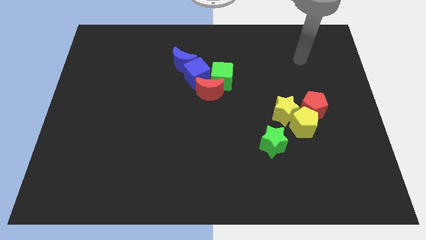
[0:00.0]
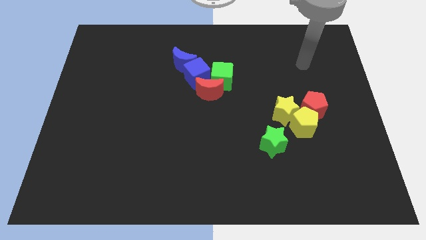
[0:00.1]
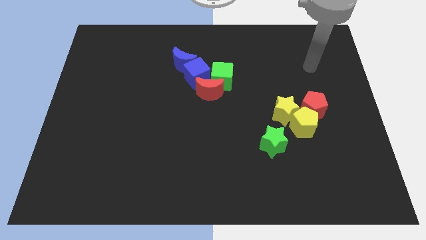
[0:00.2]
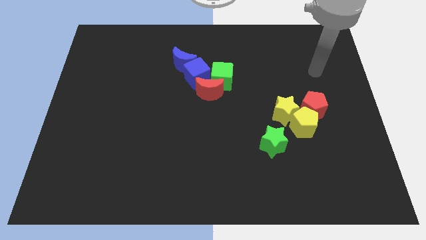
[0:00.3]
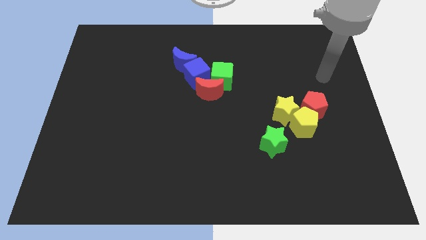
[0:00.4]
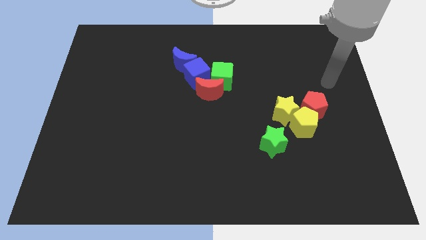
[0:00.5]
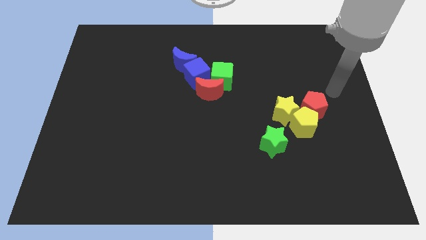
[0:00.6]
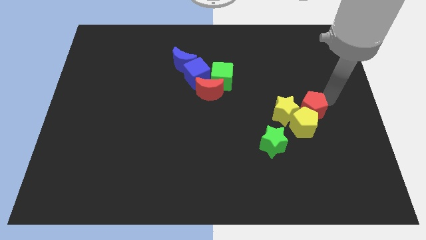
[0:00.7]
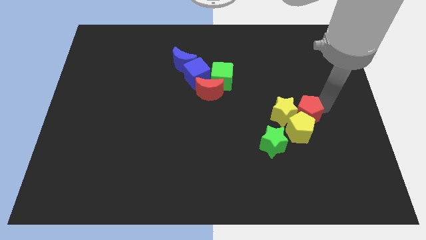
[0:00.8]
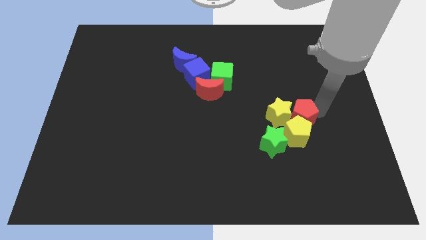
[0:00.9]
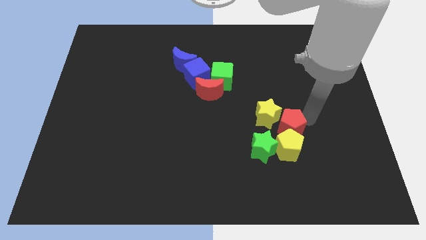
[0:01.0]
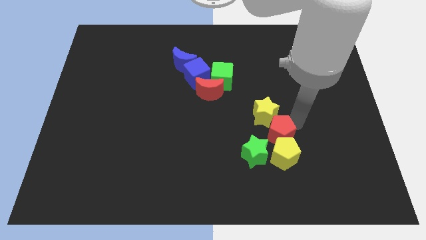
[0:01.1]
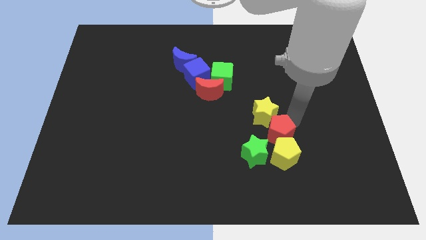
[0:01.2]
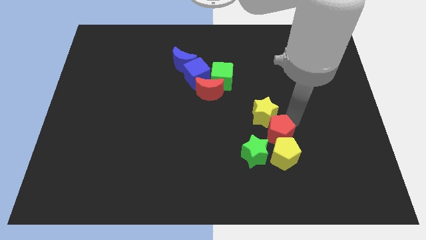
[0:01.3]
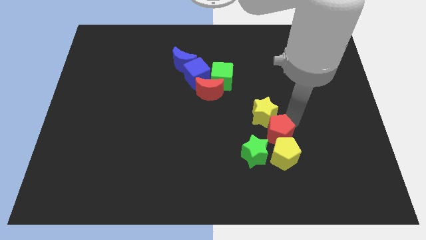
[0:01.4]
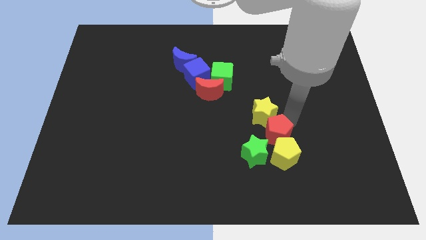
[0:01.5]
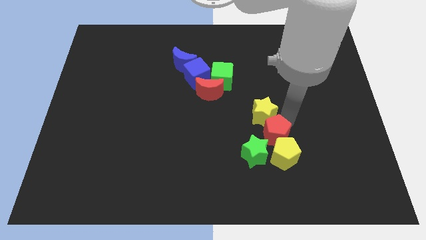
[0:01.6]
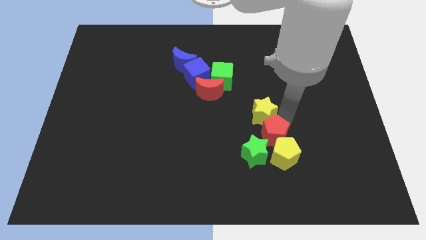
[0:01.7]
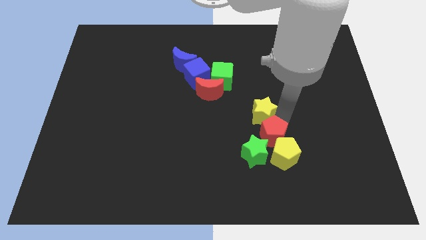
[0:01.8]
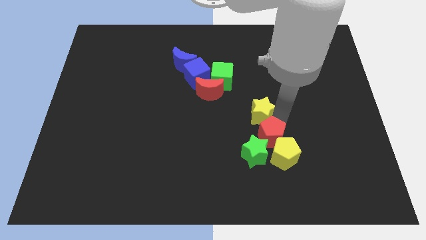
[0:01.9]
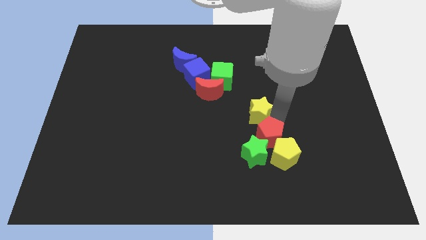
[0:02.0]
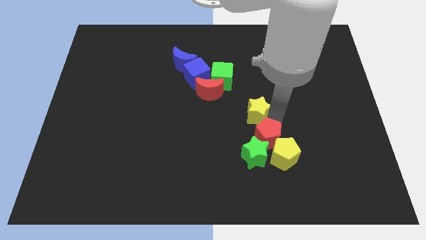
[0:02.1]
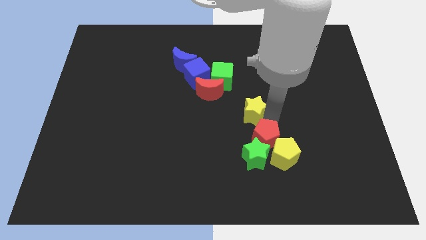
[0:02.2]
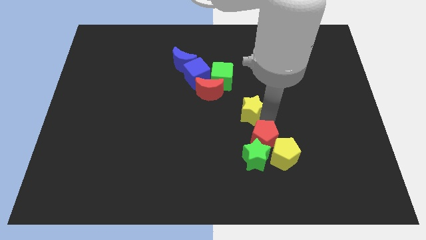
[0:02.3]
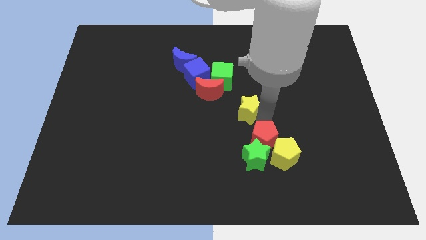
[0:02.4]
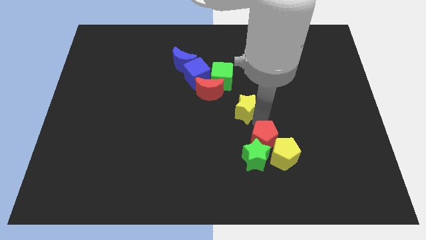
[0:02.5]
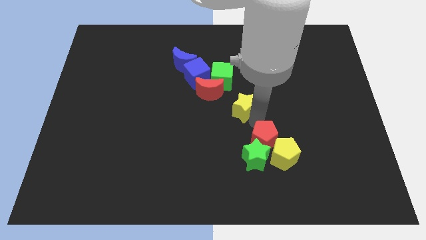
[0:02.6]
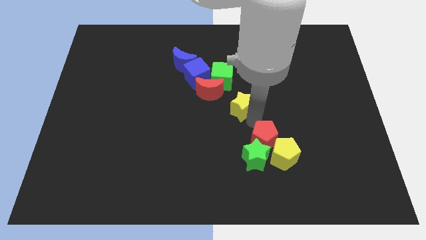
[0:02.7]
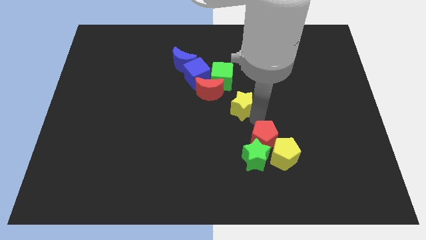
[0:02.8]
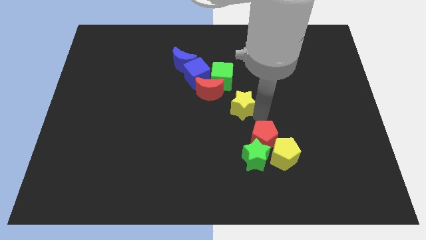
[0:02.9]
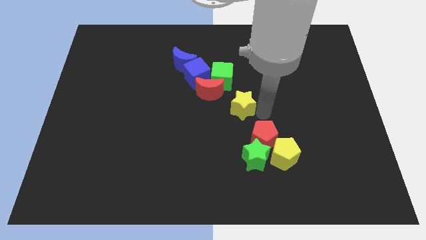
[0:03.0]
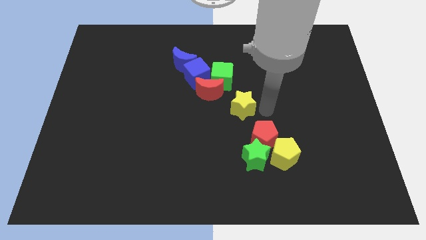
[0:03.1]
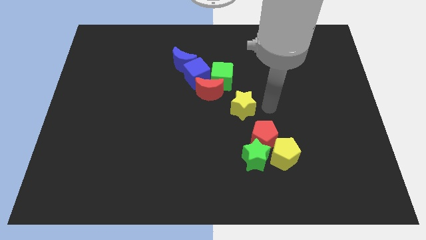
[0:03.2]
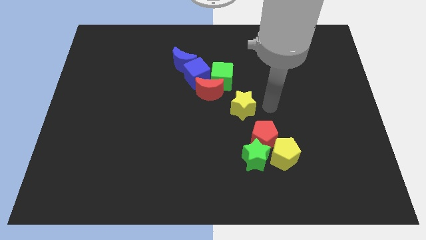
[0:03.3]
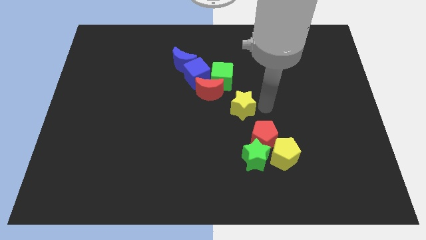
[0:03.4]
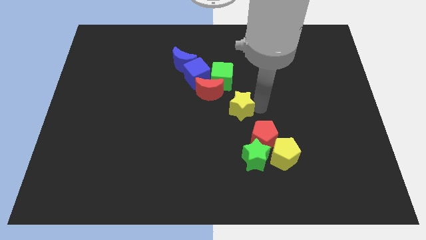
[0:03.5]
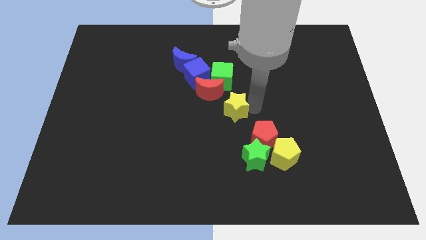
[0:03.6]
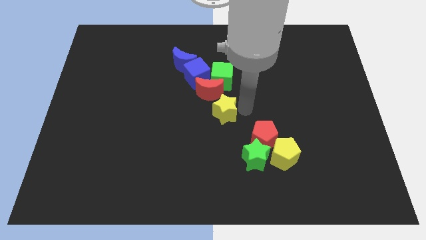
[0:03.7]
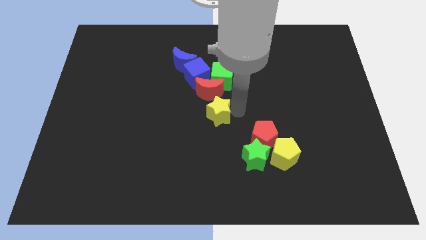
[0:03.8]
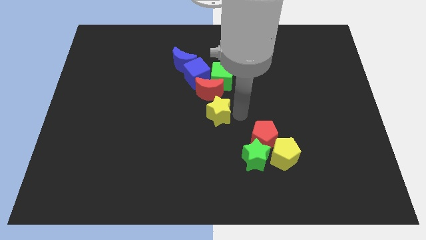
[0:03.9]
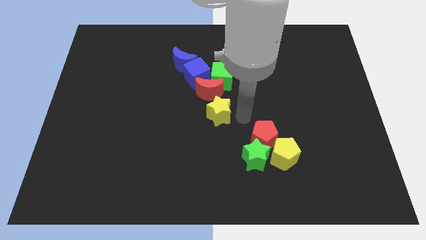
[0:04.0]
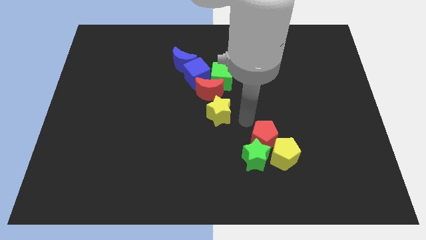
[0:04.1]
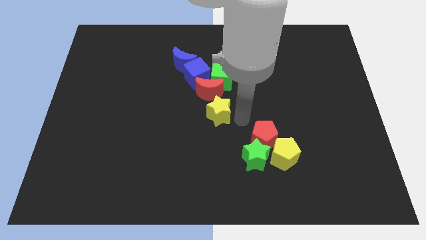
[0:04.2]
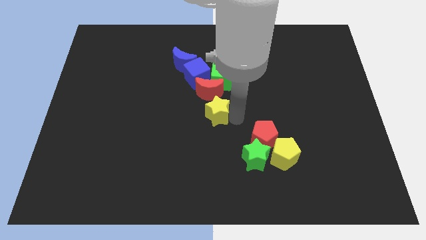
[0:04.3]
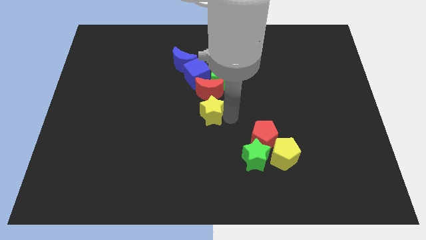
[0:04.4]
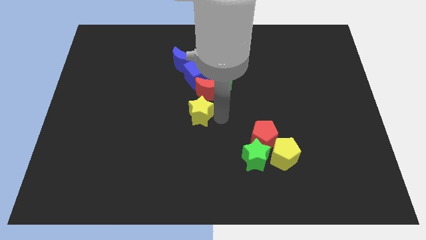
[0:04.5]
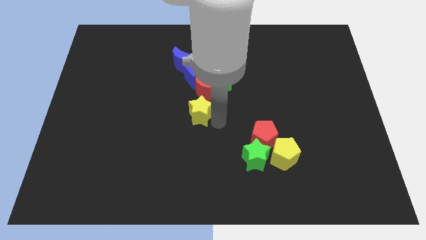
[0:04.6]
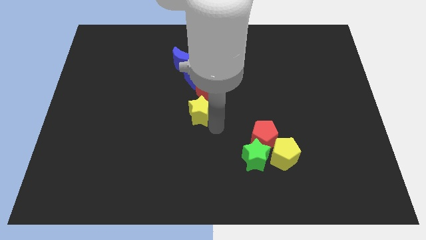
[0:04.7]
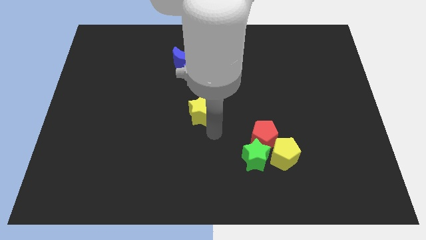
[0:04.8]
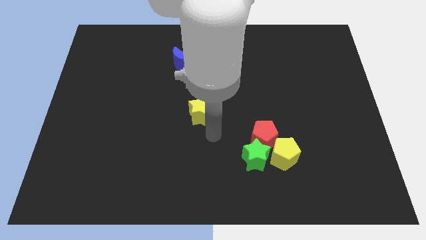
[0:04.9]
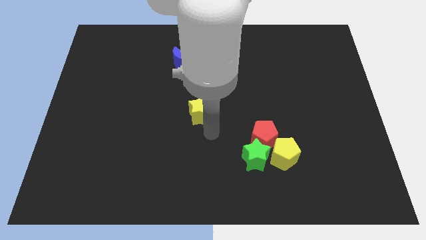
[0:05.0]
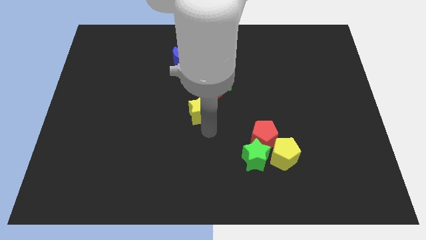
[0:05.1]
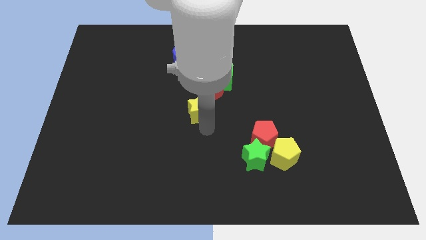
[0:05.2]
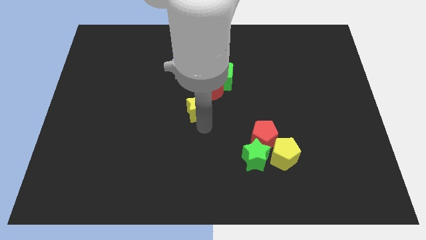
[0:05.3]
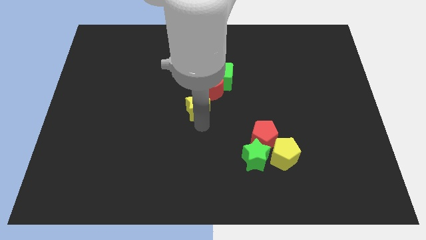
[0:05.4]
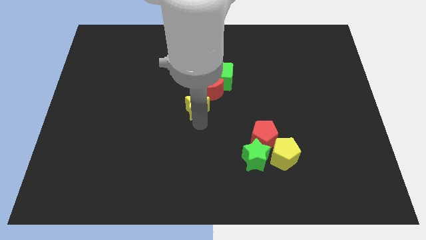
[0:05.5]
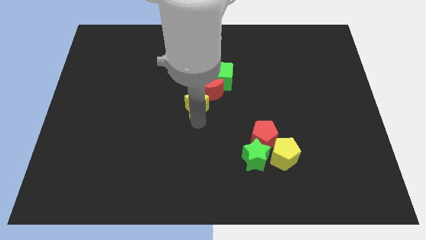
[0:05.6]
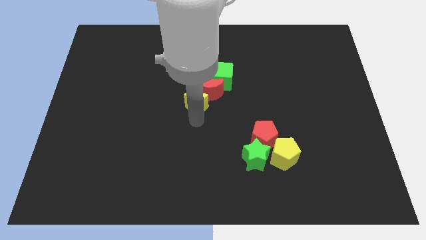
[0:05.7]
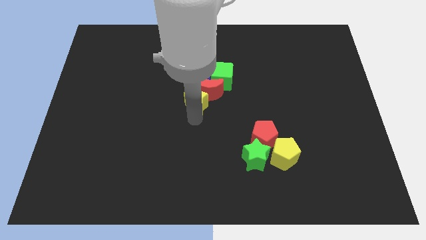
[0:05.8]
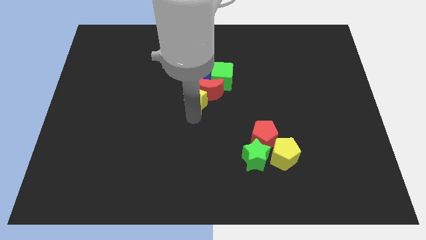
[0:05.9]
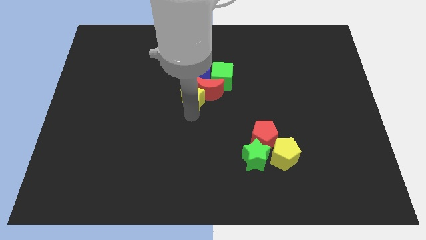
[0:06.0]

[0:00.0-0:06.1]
move the yellow star to the bottom left side of the blue cube

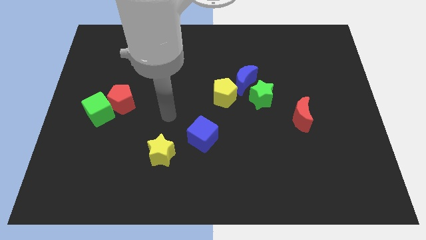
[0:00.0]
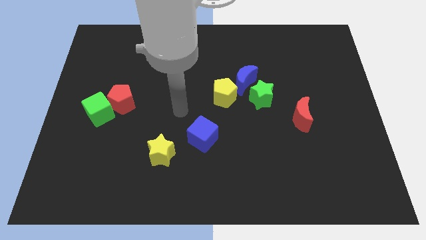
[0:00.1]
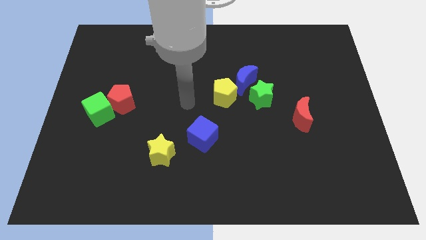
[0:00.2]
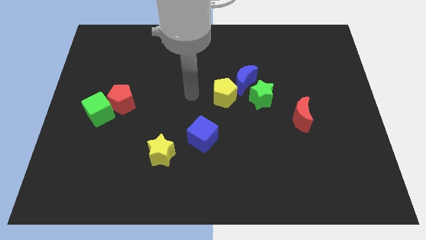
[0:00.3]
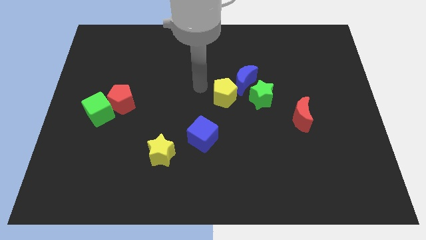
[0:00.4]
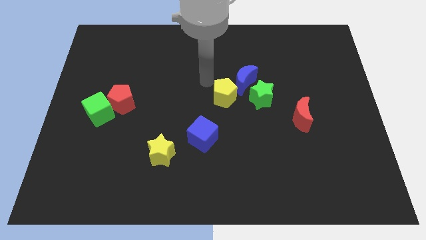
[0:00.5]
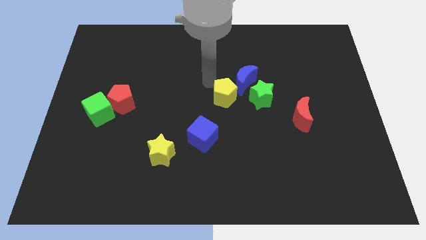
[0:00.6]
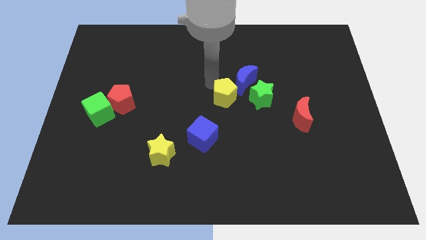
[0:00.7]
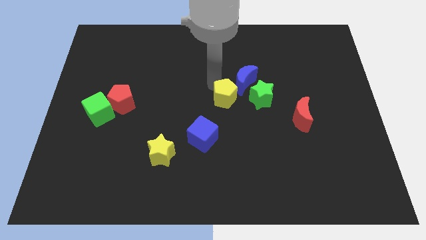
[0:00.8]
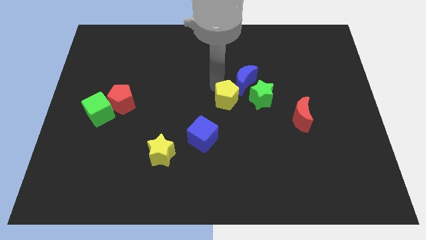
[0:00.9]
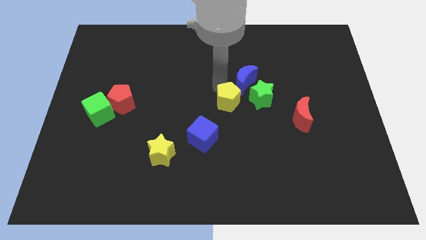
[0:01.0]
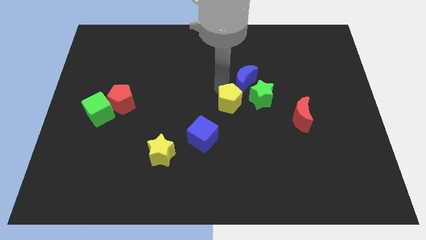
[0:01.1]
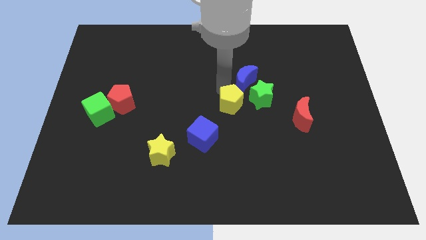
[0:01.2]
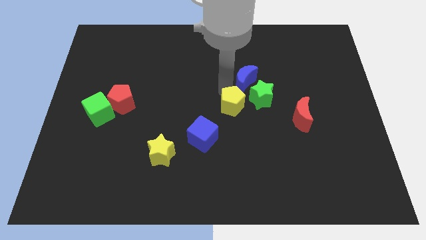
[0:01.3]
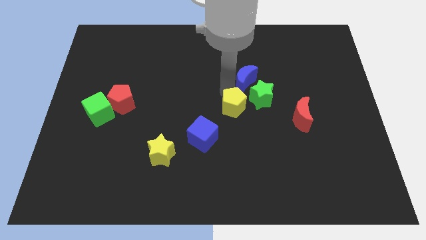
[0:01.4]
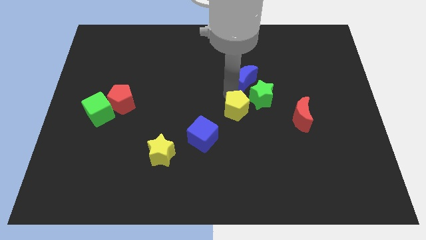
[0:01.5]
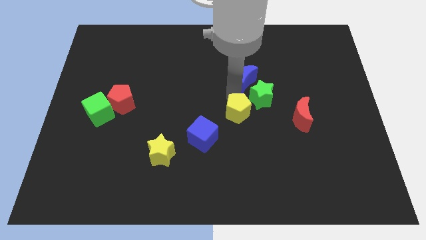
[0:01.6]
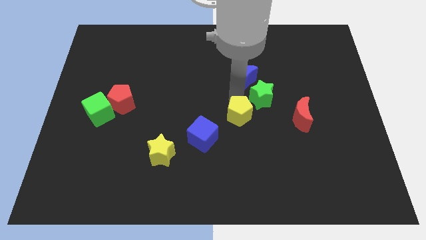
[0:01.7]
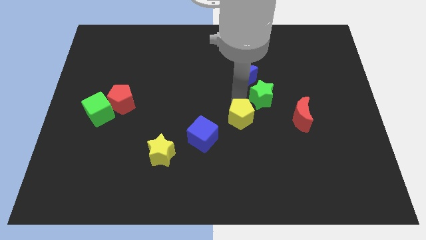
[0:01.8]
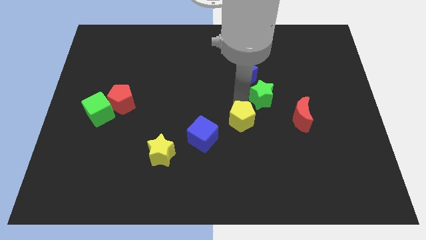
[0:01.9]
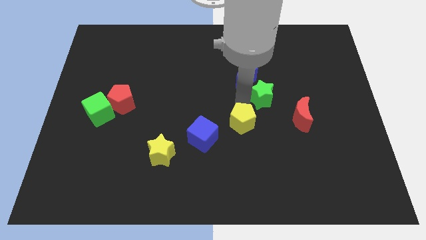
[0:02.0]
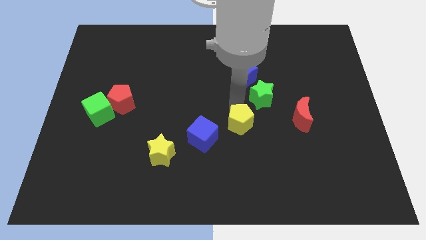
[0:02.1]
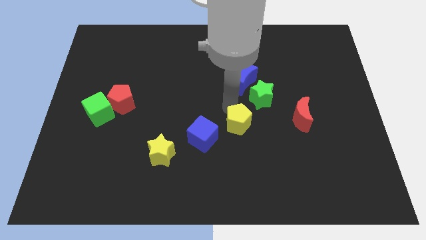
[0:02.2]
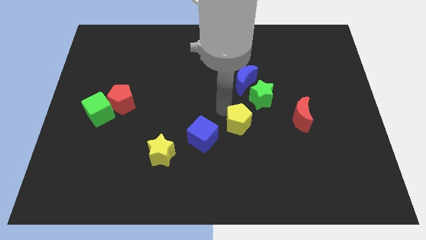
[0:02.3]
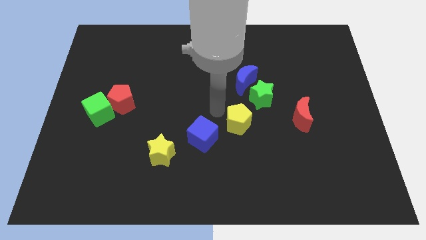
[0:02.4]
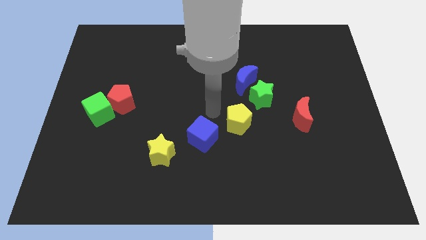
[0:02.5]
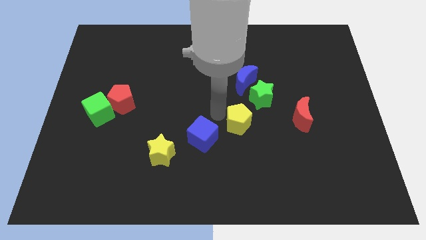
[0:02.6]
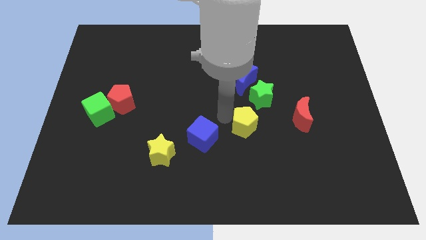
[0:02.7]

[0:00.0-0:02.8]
move the yellow pentagon to the bottom of the green star
